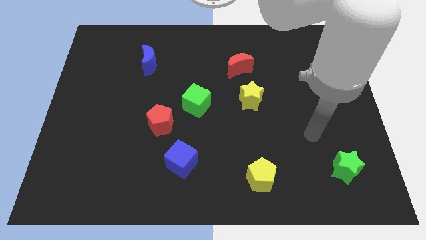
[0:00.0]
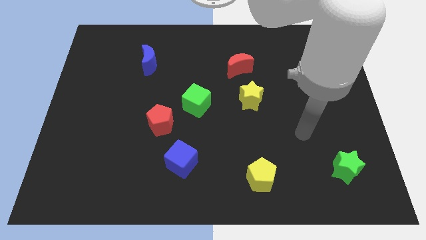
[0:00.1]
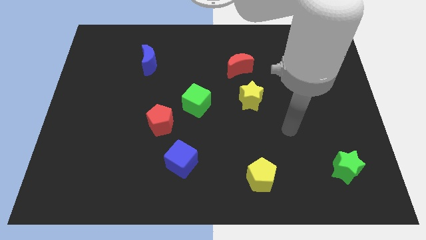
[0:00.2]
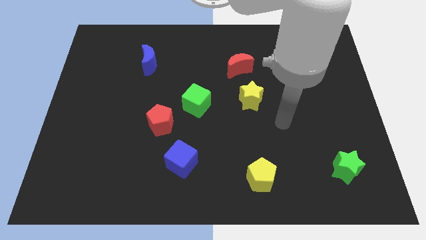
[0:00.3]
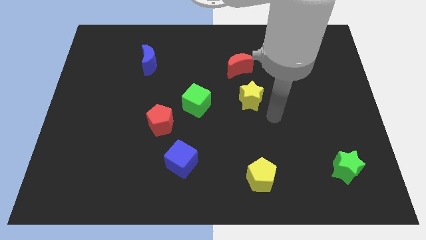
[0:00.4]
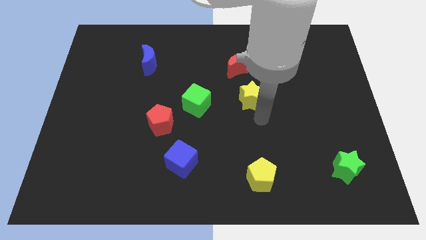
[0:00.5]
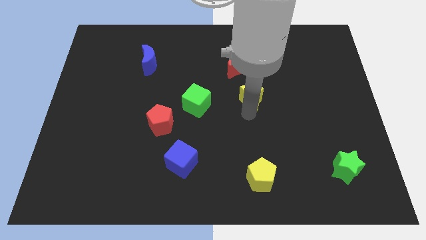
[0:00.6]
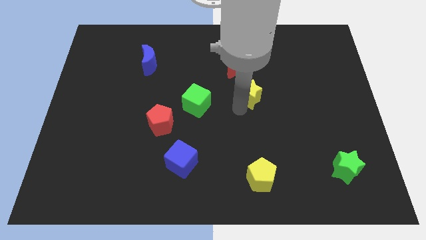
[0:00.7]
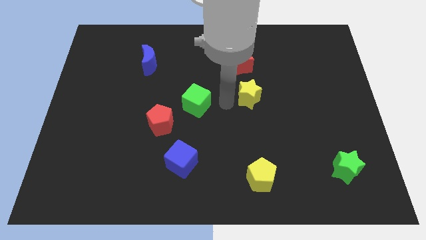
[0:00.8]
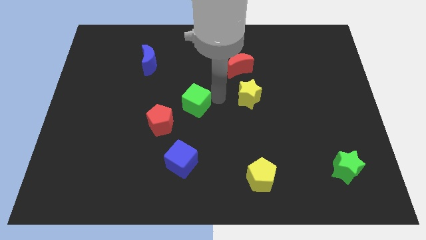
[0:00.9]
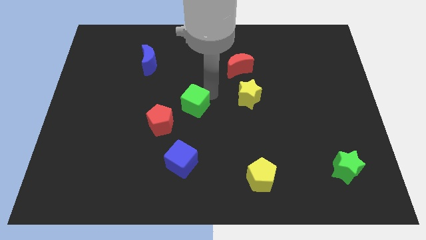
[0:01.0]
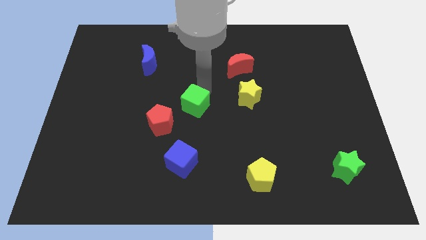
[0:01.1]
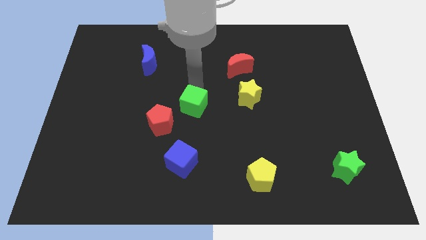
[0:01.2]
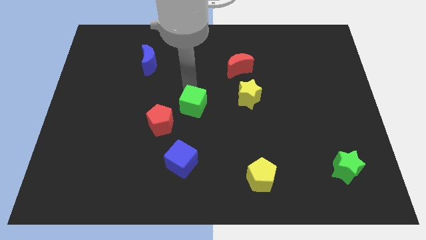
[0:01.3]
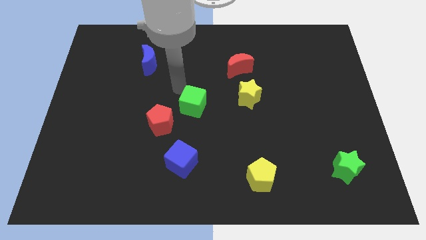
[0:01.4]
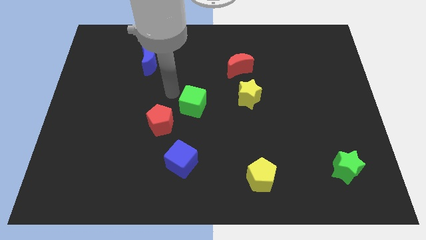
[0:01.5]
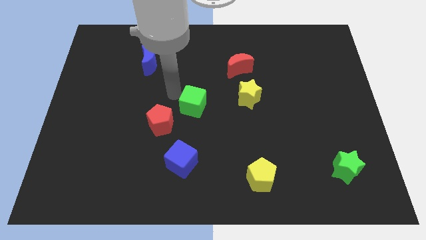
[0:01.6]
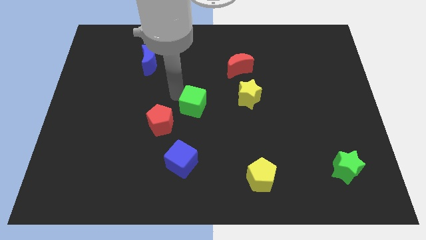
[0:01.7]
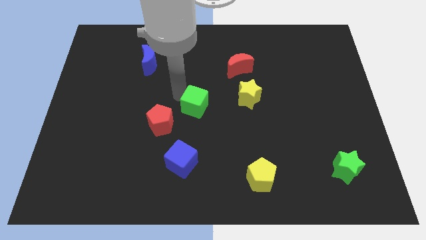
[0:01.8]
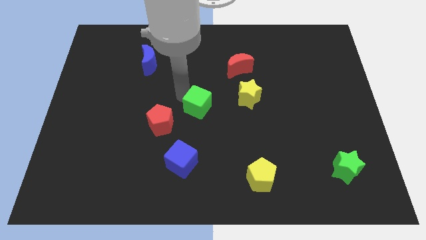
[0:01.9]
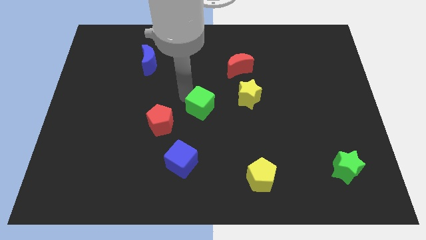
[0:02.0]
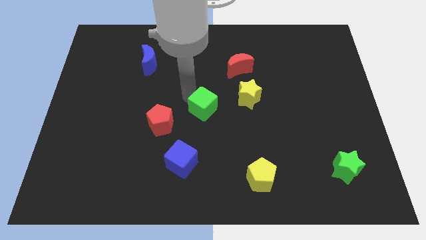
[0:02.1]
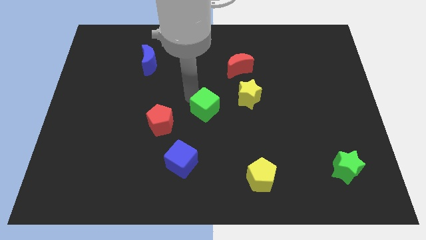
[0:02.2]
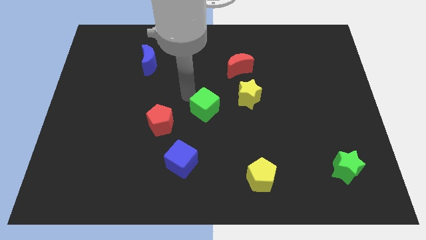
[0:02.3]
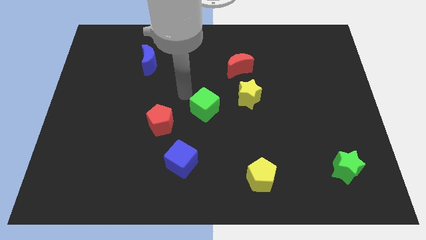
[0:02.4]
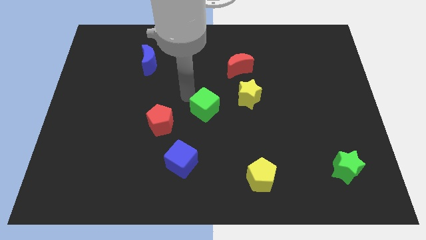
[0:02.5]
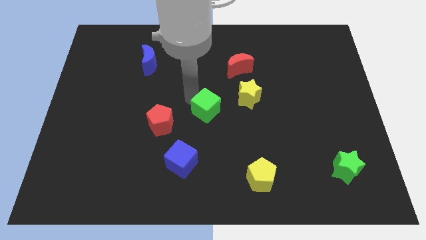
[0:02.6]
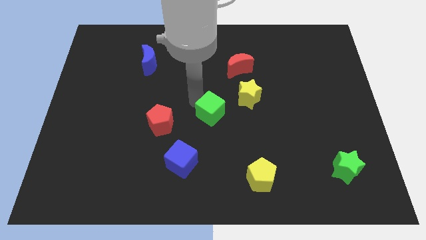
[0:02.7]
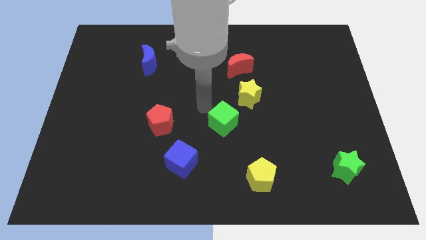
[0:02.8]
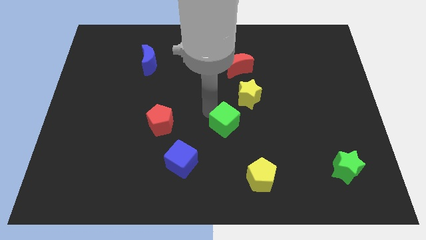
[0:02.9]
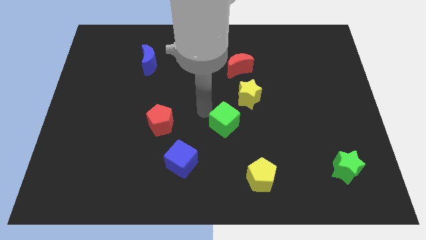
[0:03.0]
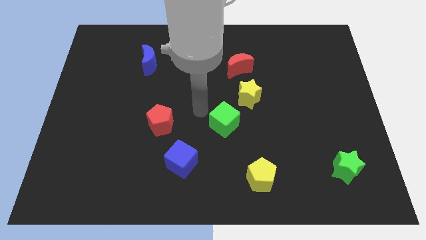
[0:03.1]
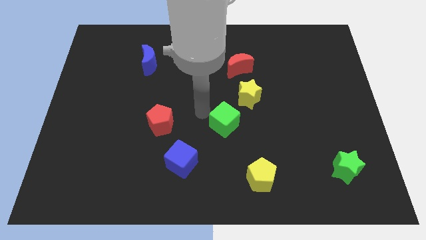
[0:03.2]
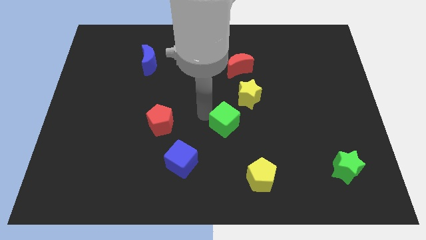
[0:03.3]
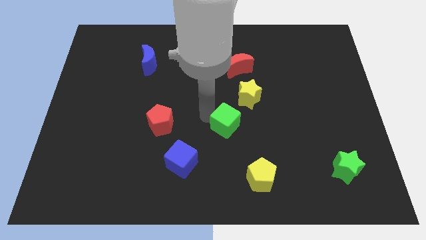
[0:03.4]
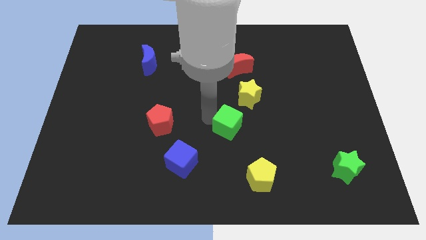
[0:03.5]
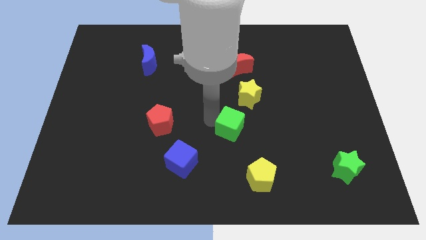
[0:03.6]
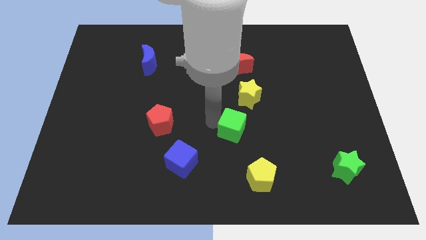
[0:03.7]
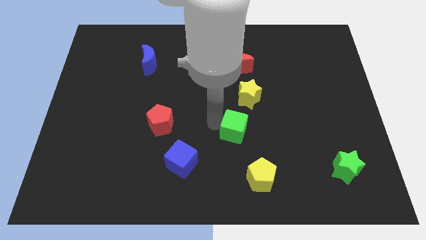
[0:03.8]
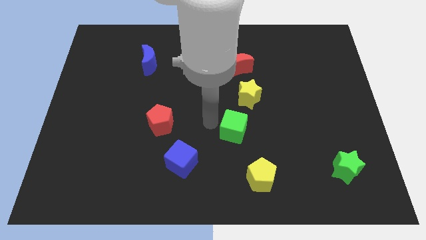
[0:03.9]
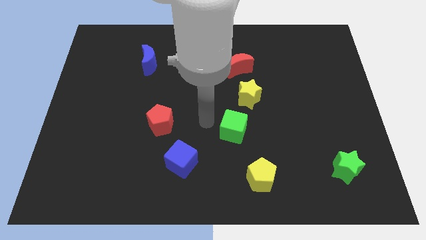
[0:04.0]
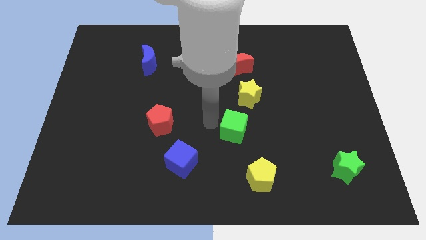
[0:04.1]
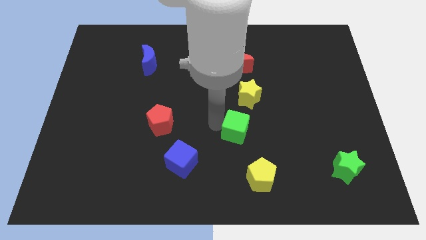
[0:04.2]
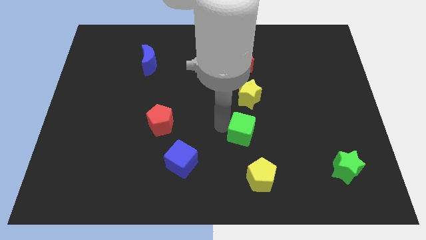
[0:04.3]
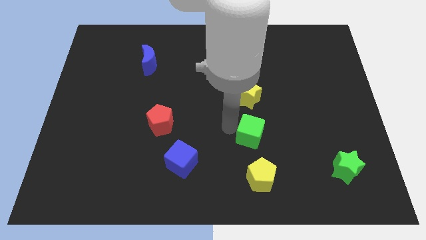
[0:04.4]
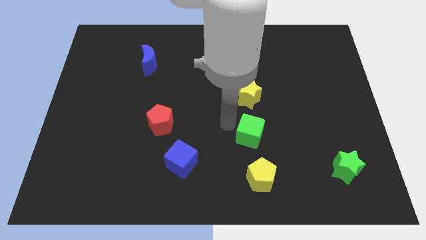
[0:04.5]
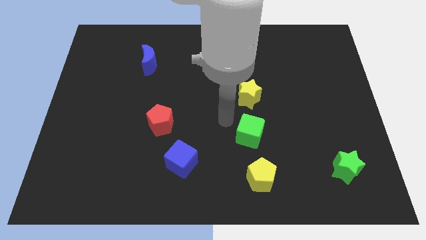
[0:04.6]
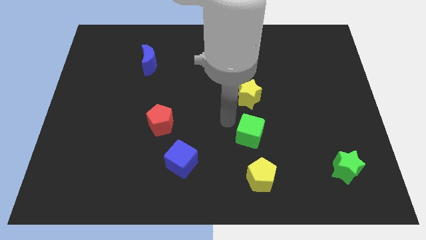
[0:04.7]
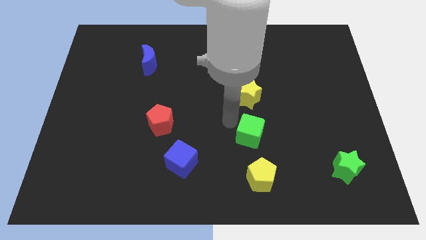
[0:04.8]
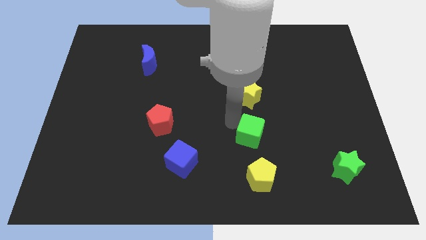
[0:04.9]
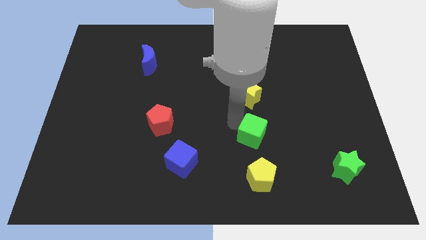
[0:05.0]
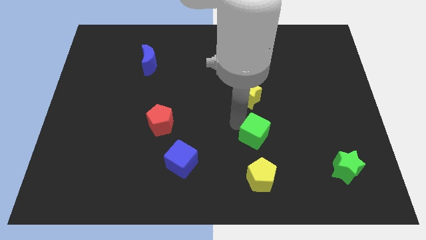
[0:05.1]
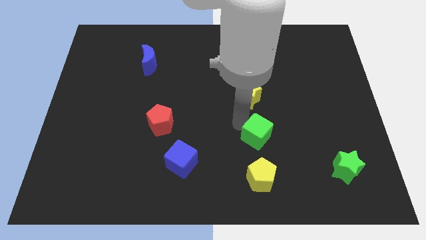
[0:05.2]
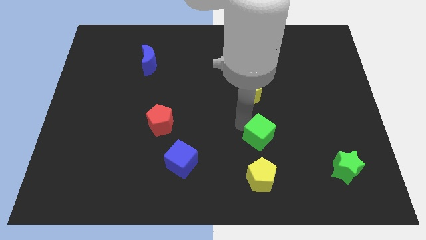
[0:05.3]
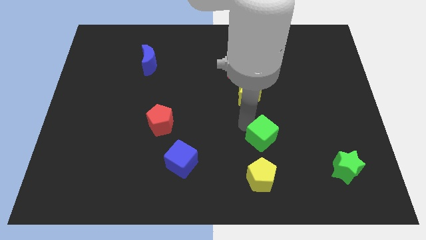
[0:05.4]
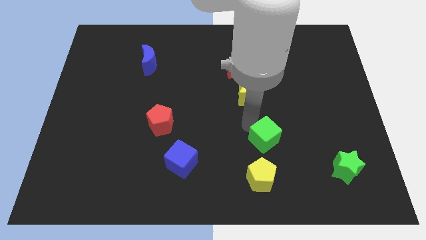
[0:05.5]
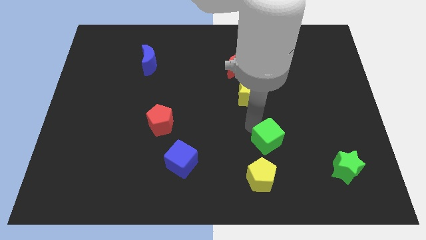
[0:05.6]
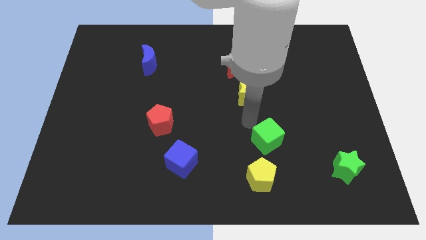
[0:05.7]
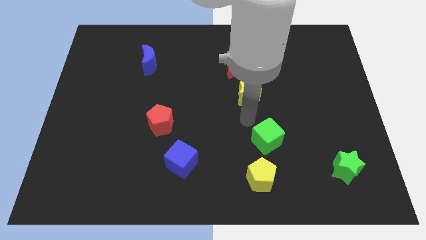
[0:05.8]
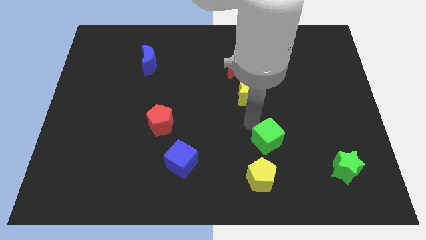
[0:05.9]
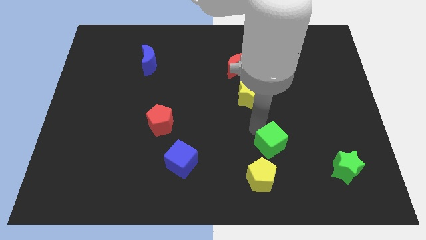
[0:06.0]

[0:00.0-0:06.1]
slide the green cube to the top right side of the yellow pentagon

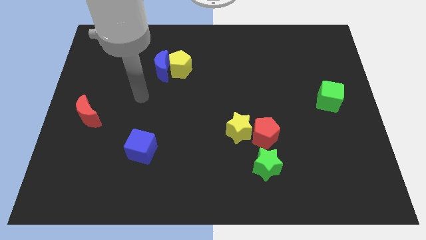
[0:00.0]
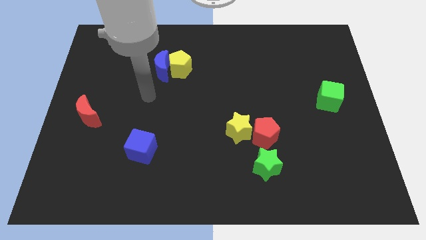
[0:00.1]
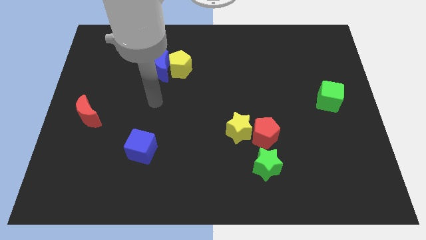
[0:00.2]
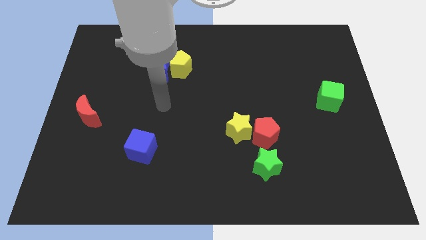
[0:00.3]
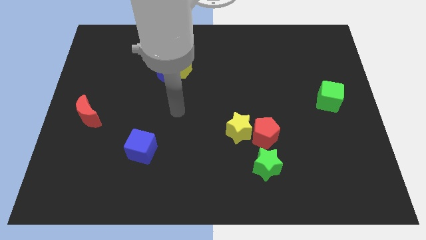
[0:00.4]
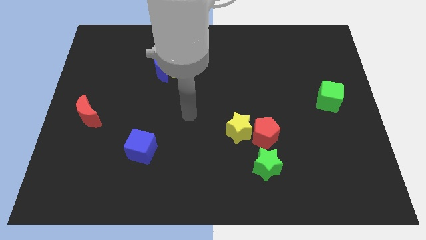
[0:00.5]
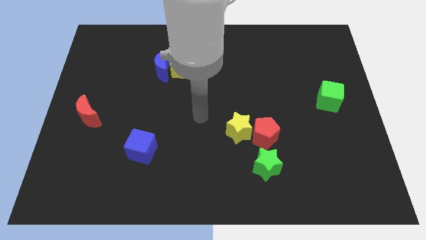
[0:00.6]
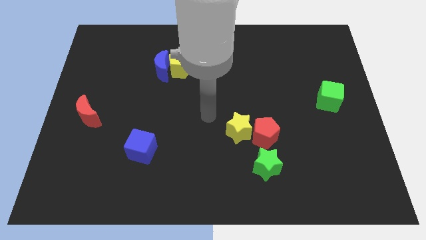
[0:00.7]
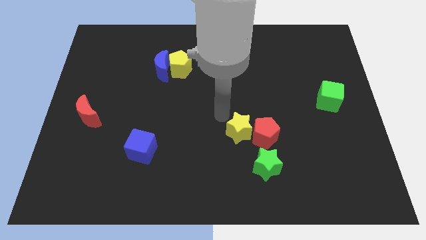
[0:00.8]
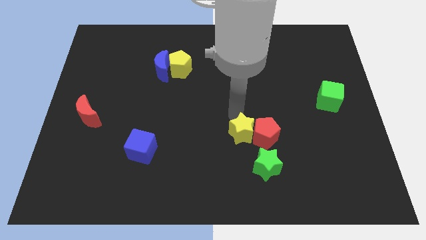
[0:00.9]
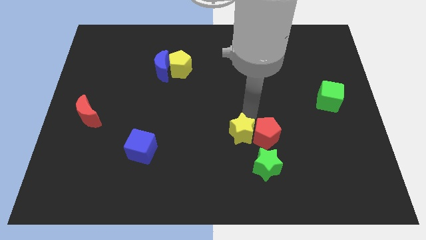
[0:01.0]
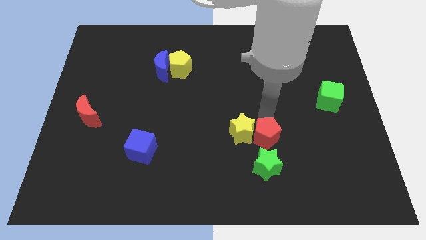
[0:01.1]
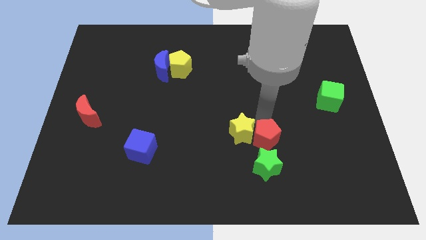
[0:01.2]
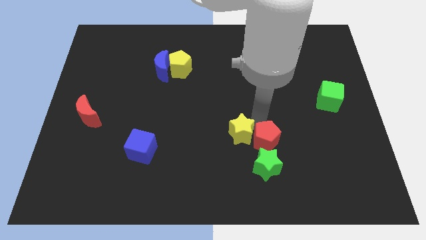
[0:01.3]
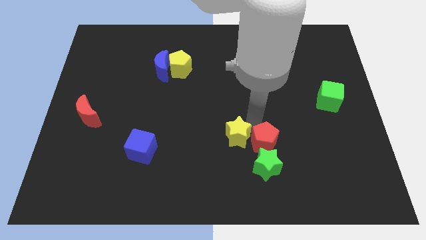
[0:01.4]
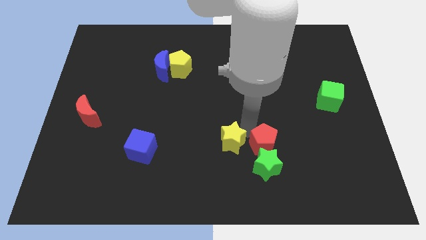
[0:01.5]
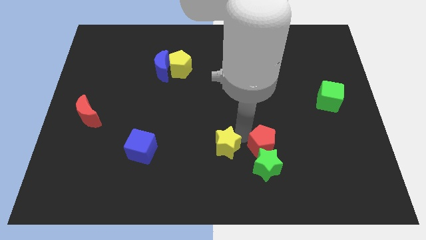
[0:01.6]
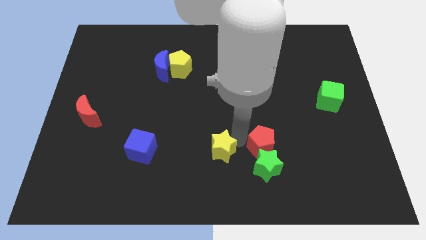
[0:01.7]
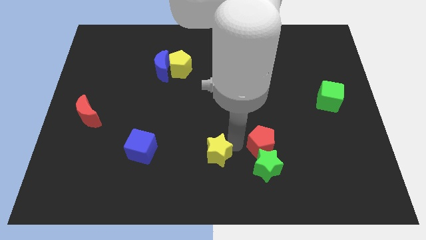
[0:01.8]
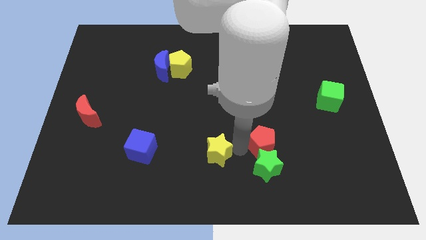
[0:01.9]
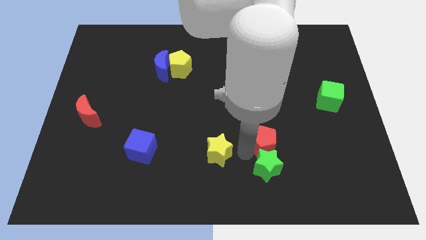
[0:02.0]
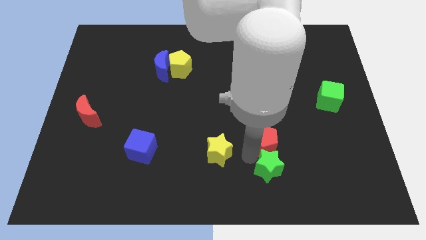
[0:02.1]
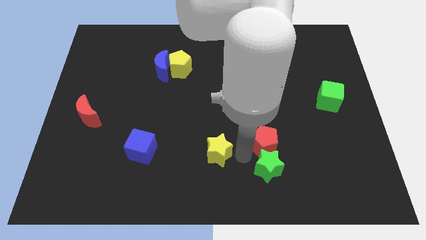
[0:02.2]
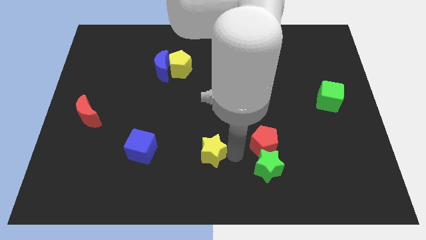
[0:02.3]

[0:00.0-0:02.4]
slide the yellow star to the right side of the blue cube
